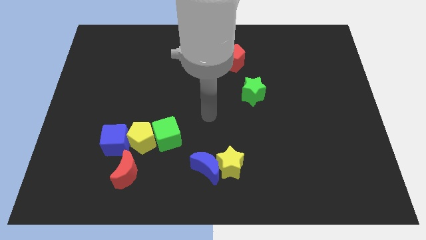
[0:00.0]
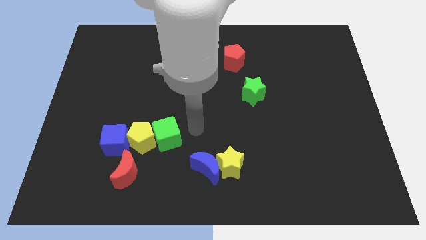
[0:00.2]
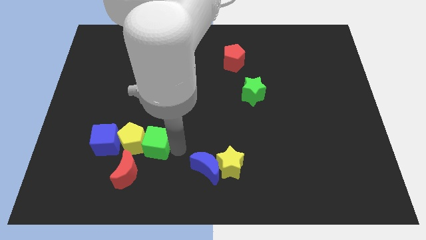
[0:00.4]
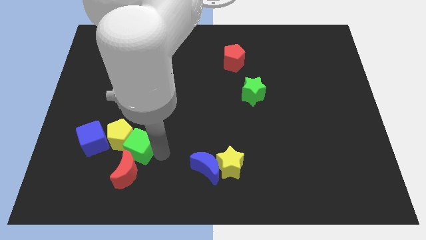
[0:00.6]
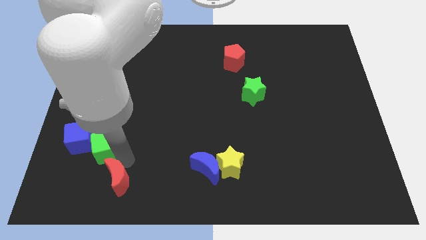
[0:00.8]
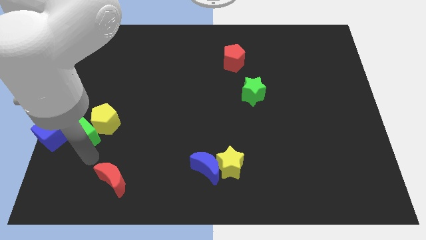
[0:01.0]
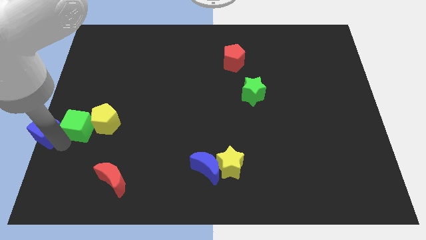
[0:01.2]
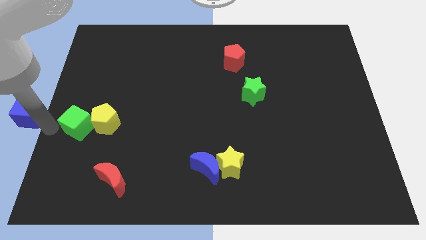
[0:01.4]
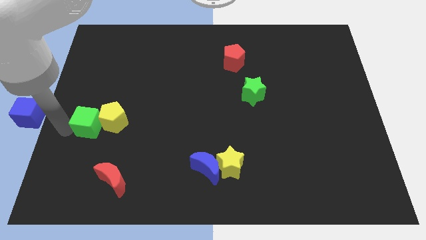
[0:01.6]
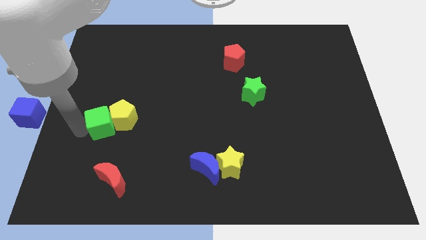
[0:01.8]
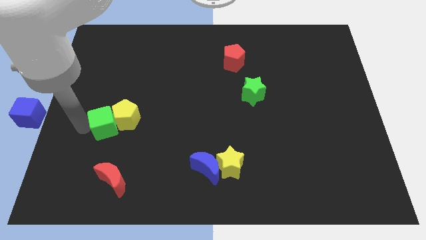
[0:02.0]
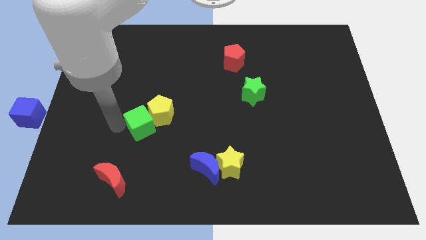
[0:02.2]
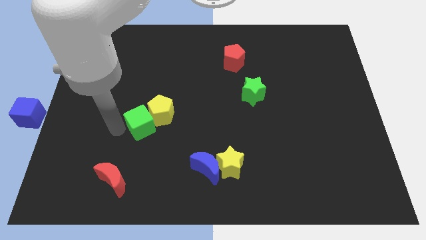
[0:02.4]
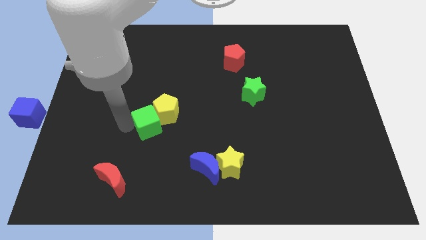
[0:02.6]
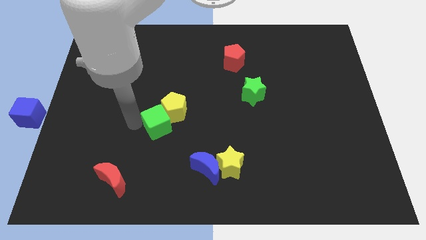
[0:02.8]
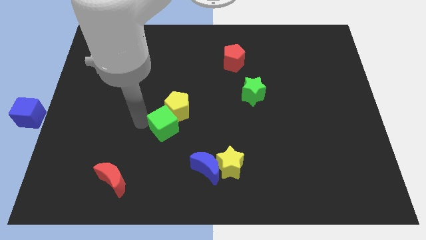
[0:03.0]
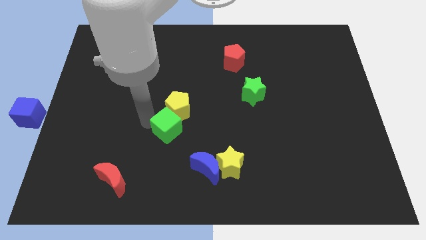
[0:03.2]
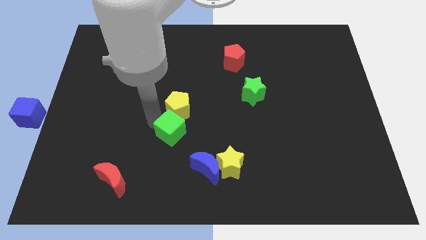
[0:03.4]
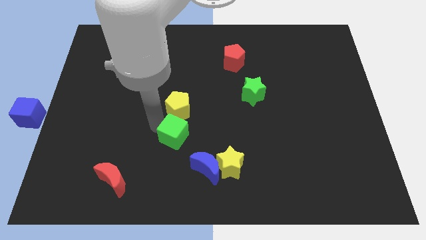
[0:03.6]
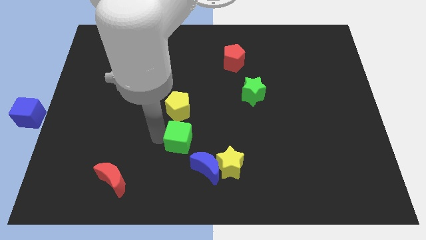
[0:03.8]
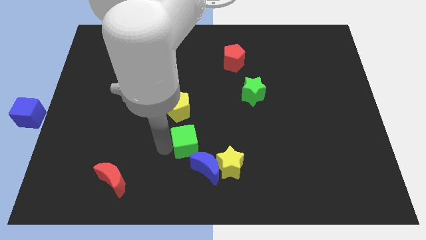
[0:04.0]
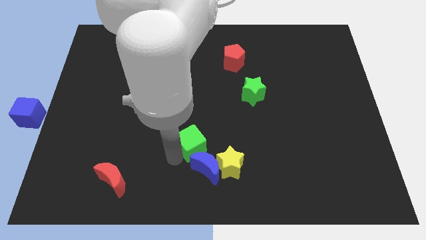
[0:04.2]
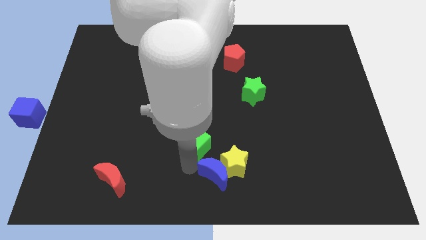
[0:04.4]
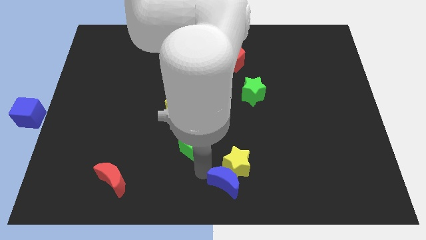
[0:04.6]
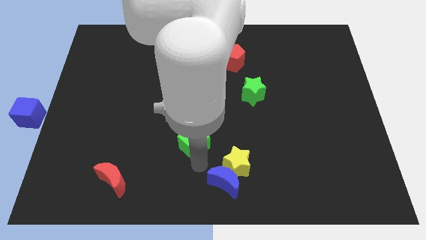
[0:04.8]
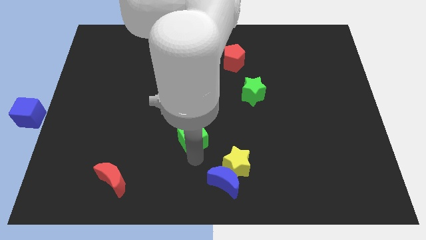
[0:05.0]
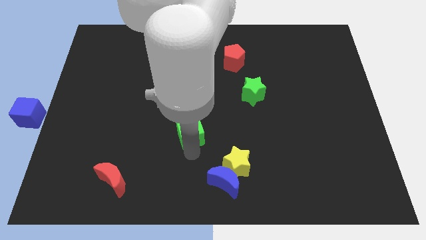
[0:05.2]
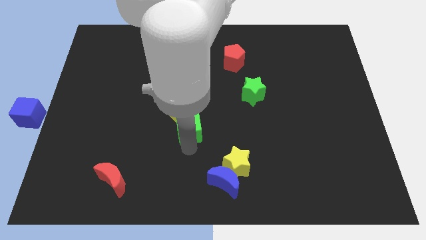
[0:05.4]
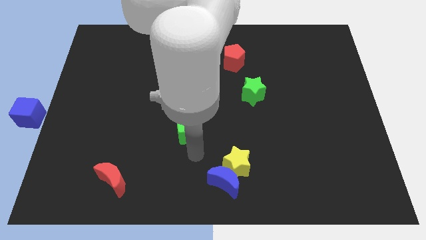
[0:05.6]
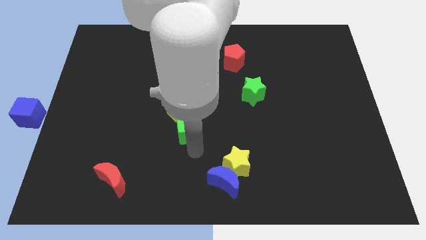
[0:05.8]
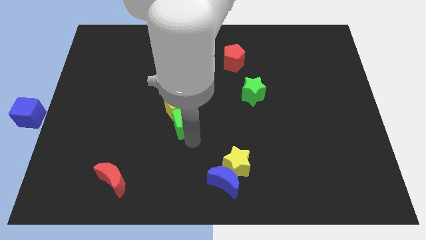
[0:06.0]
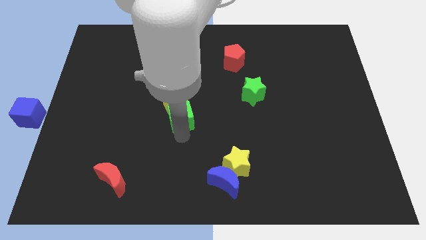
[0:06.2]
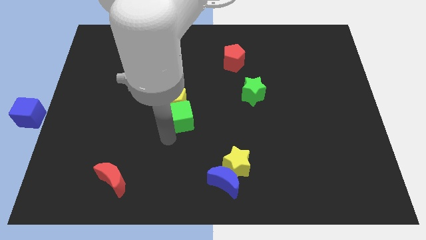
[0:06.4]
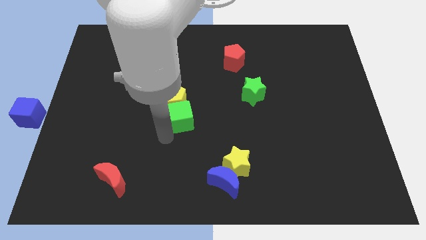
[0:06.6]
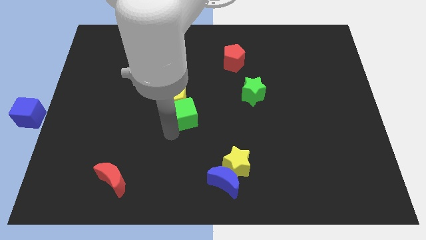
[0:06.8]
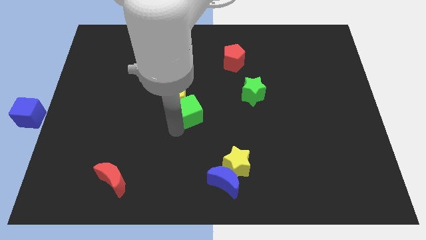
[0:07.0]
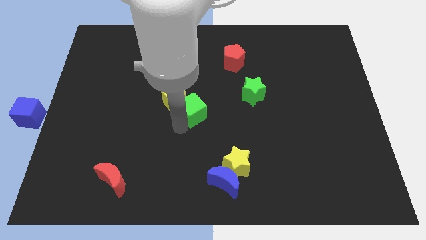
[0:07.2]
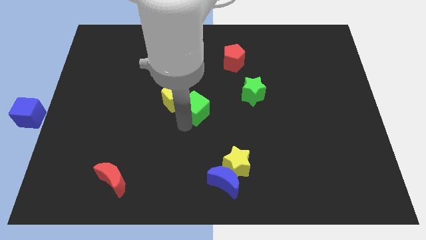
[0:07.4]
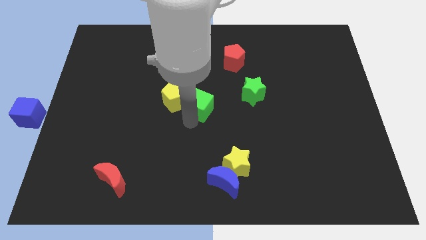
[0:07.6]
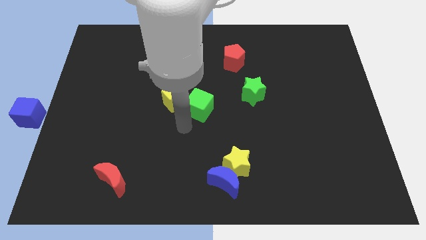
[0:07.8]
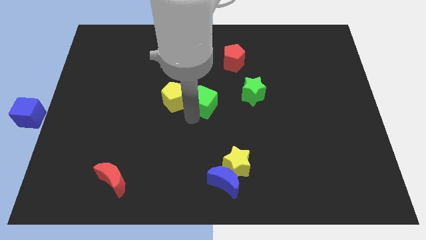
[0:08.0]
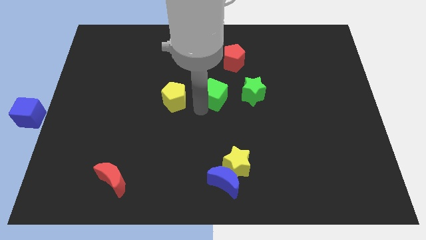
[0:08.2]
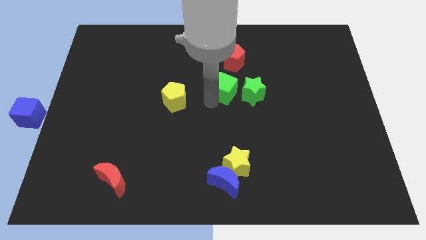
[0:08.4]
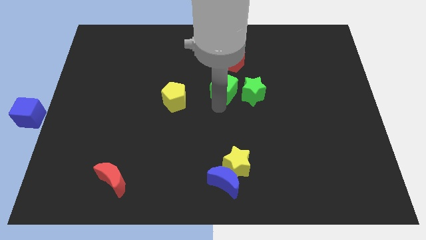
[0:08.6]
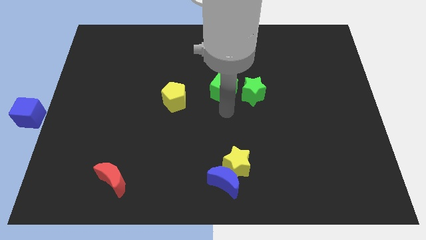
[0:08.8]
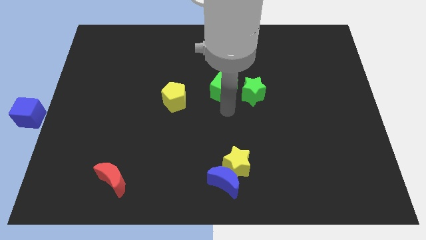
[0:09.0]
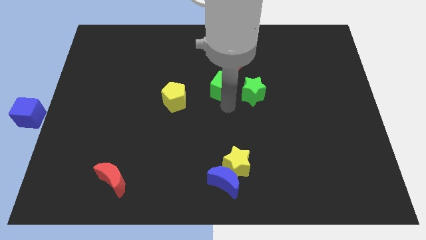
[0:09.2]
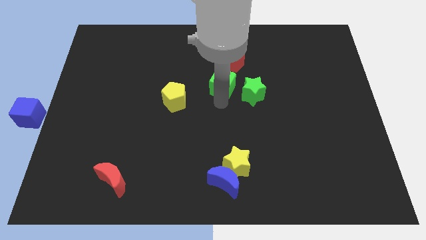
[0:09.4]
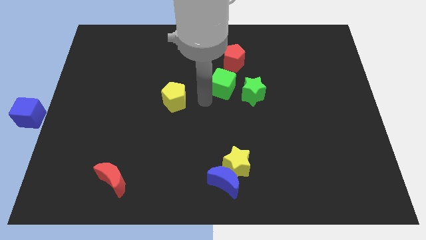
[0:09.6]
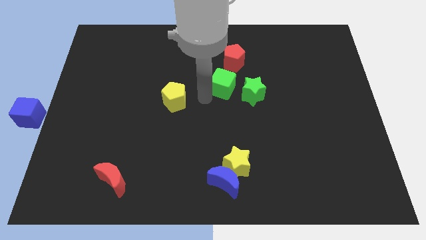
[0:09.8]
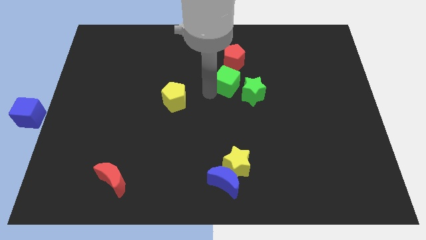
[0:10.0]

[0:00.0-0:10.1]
push the green cube up and right

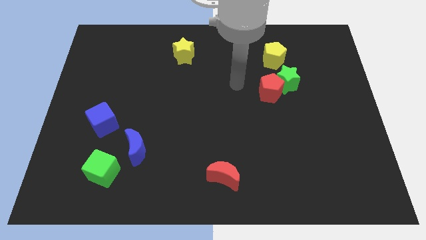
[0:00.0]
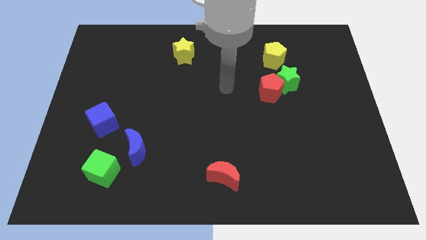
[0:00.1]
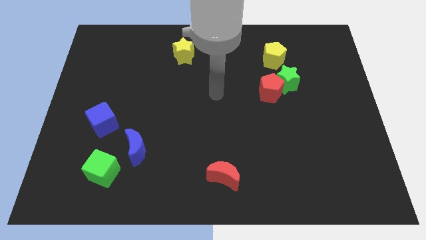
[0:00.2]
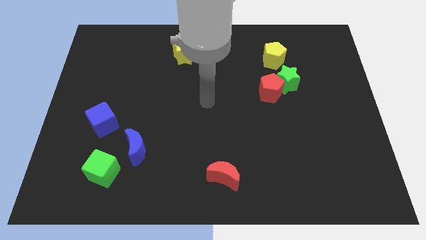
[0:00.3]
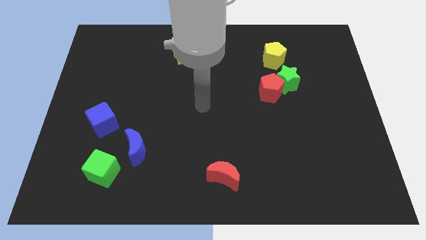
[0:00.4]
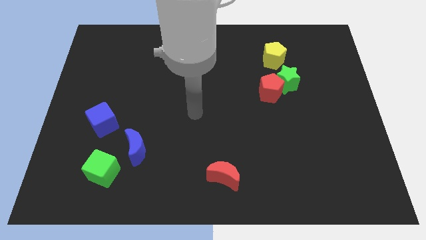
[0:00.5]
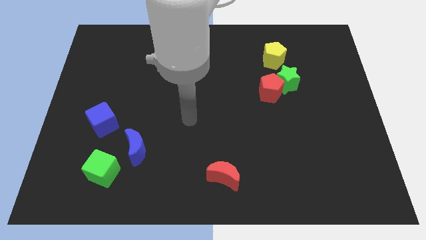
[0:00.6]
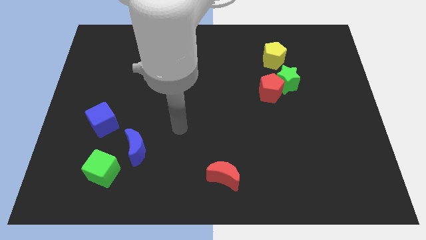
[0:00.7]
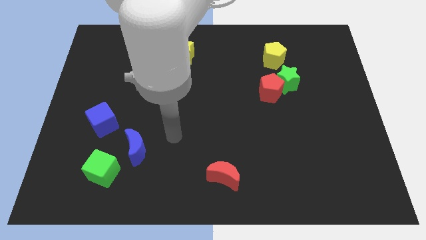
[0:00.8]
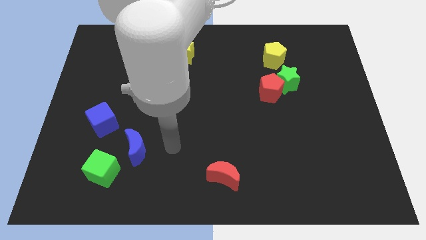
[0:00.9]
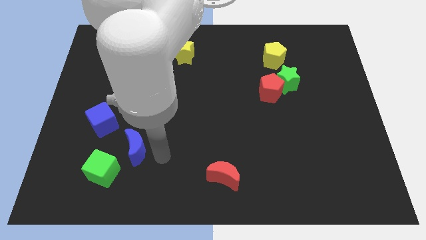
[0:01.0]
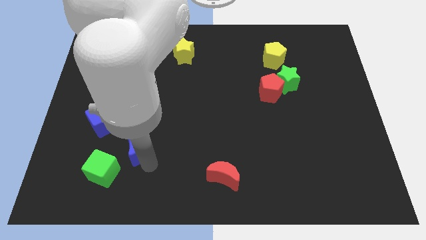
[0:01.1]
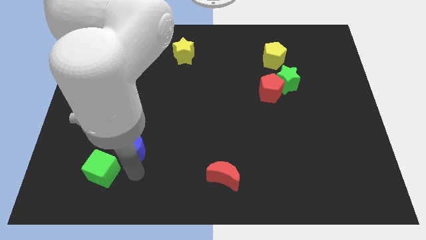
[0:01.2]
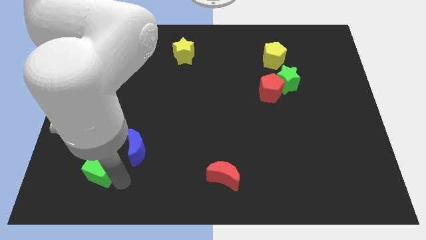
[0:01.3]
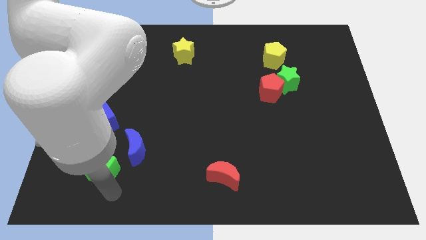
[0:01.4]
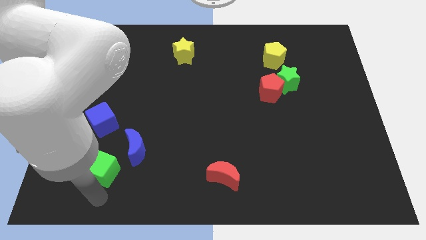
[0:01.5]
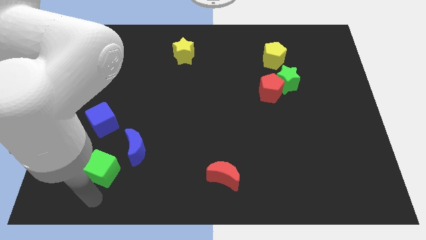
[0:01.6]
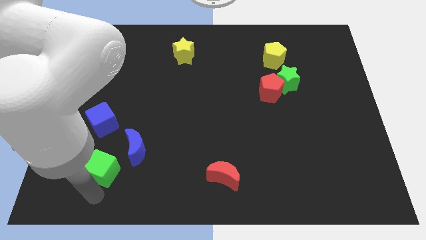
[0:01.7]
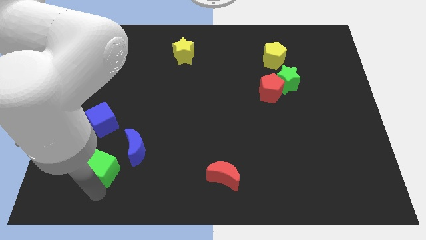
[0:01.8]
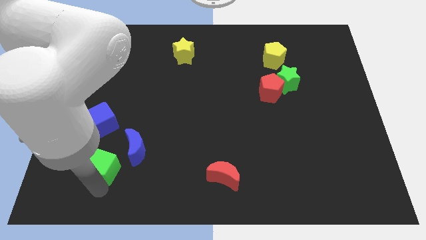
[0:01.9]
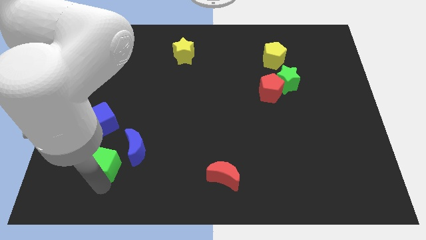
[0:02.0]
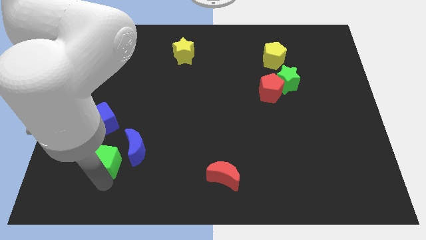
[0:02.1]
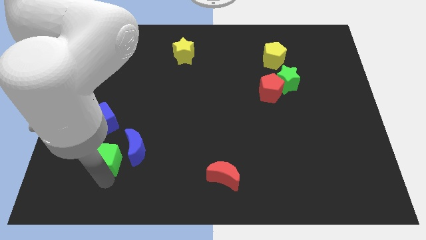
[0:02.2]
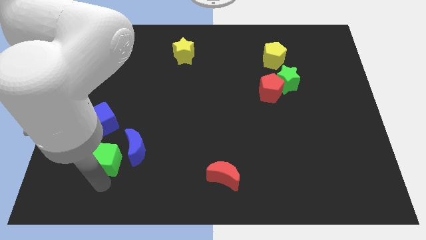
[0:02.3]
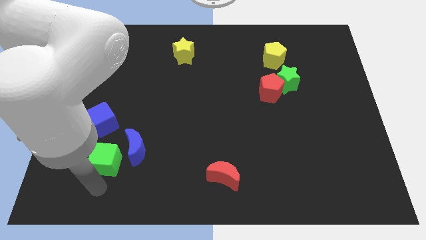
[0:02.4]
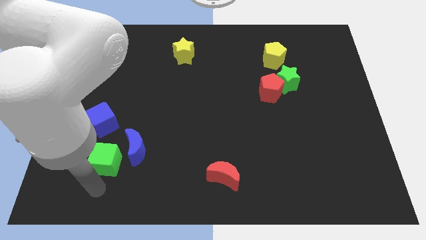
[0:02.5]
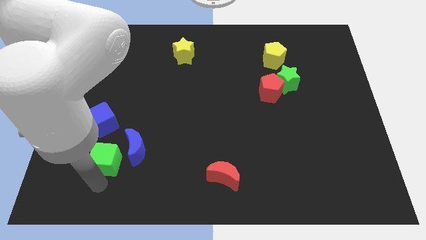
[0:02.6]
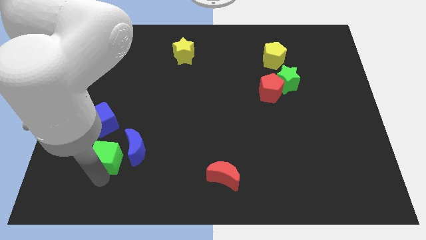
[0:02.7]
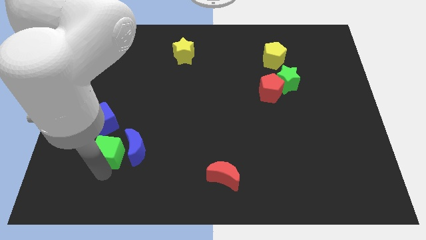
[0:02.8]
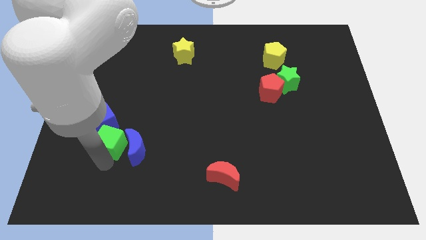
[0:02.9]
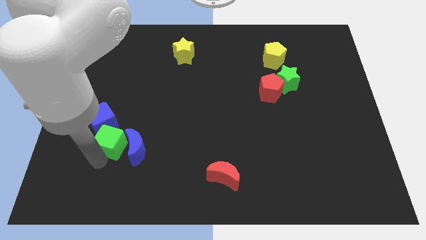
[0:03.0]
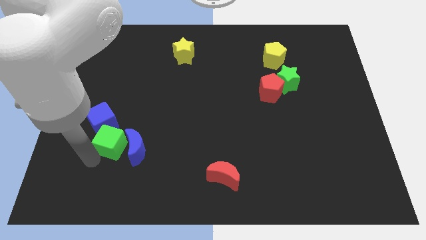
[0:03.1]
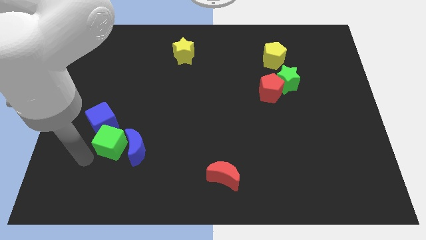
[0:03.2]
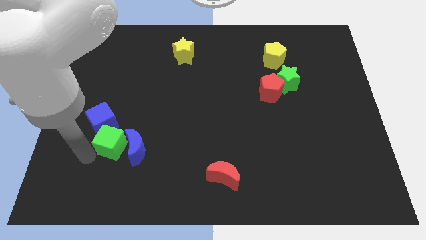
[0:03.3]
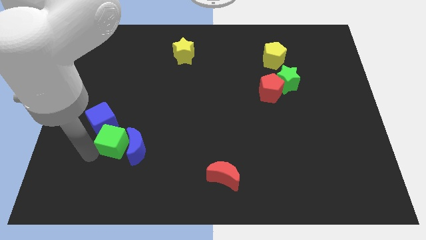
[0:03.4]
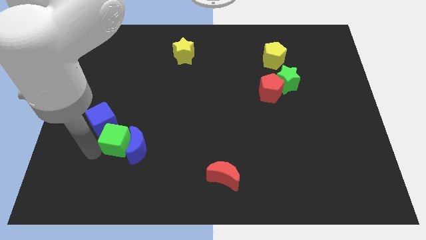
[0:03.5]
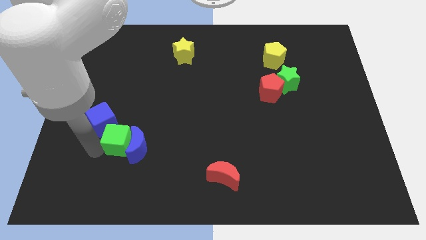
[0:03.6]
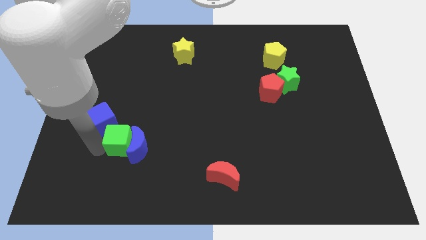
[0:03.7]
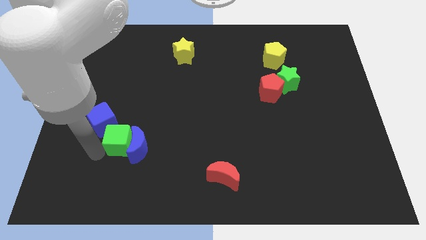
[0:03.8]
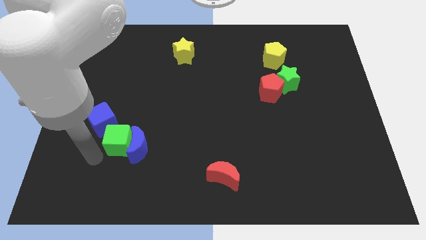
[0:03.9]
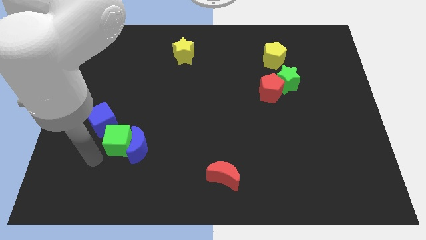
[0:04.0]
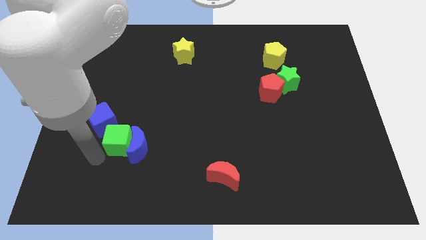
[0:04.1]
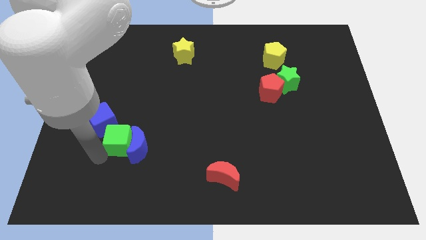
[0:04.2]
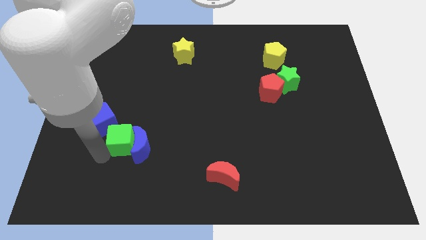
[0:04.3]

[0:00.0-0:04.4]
slightly move the green cube upwards and then to the right
